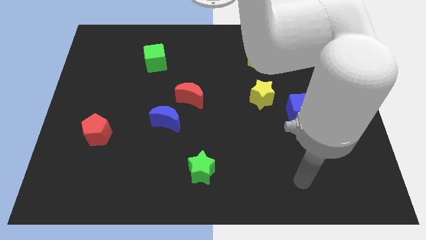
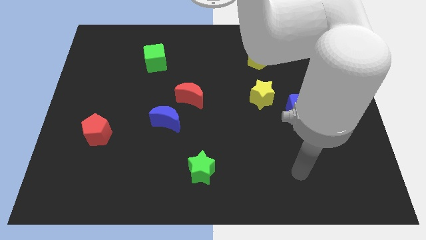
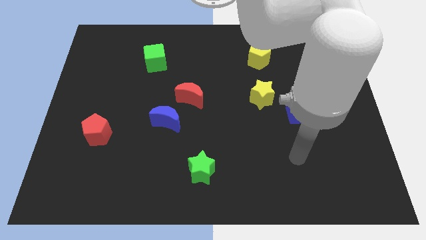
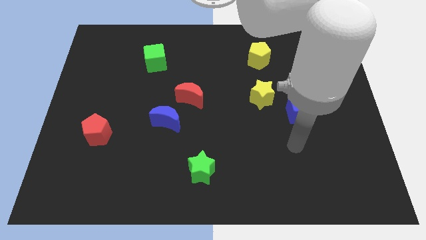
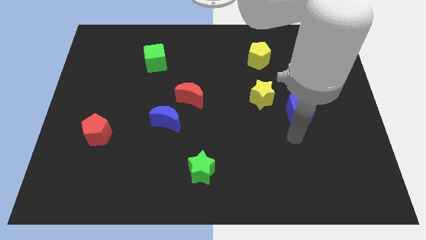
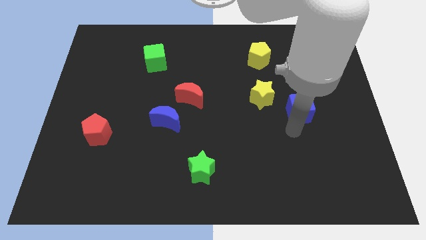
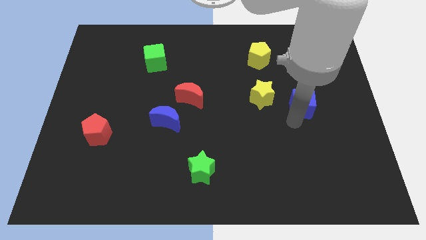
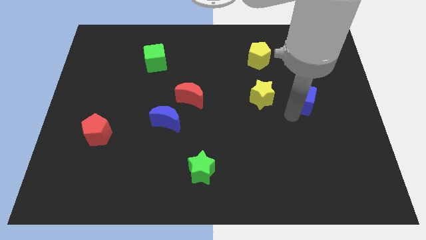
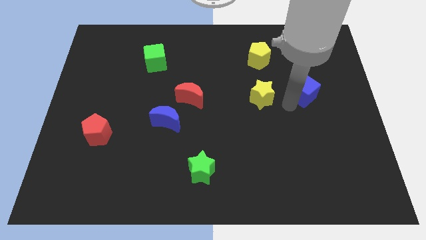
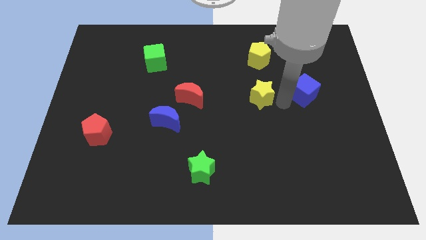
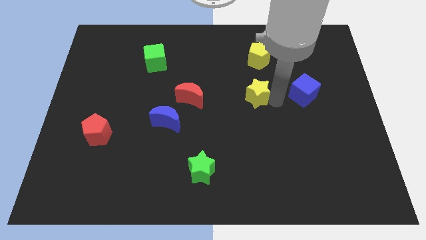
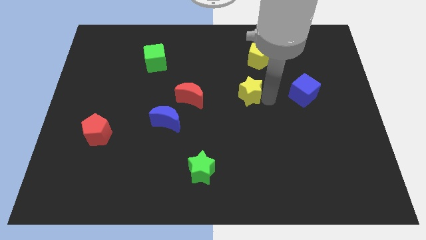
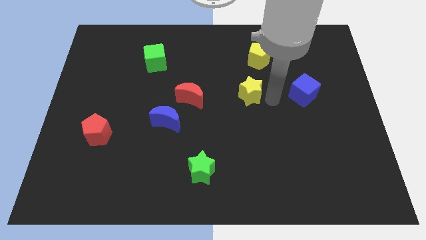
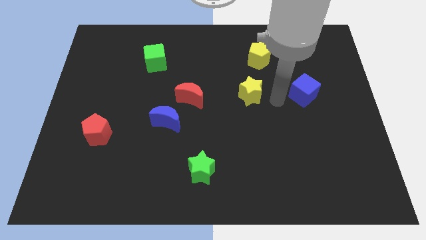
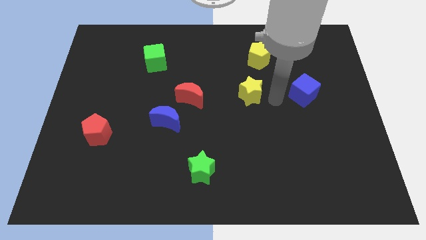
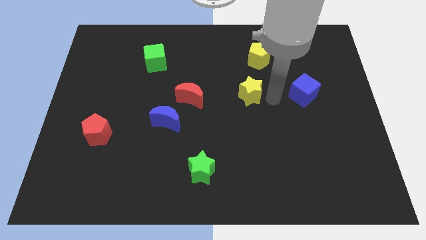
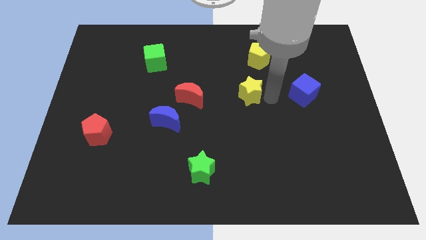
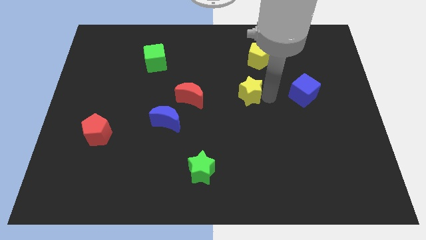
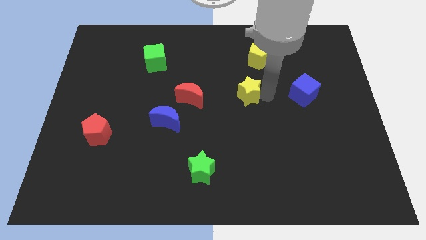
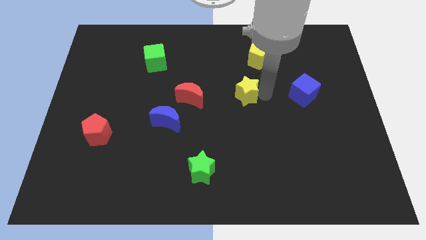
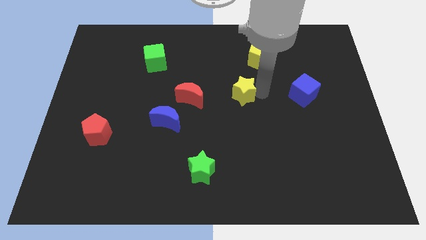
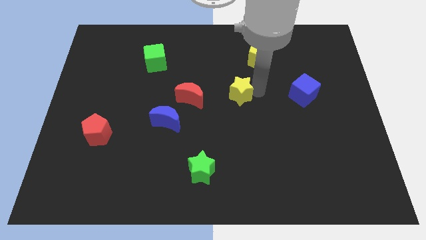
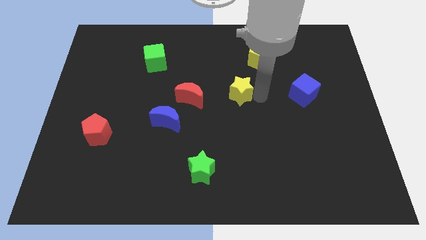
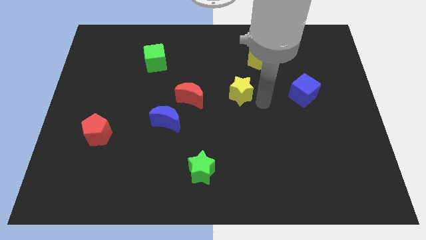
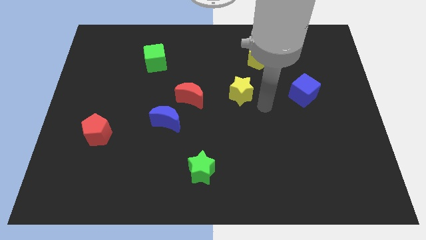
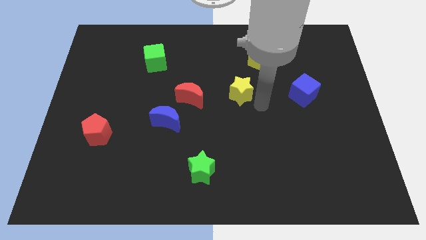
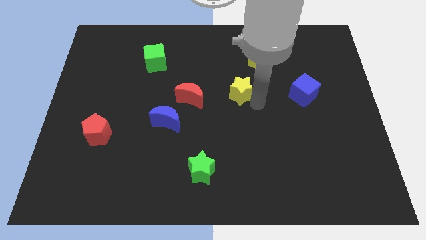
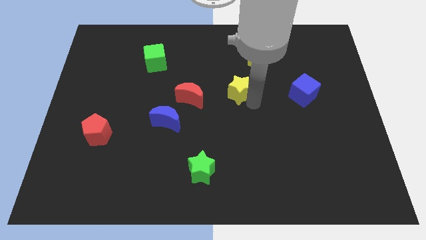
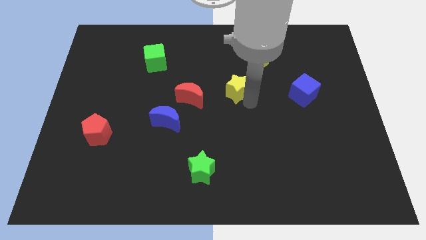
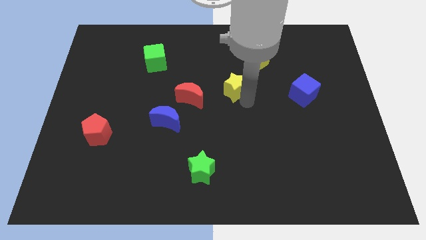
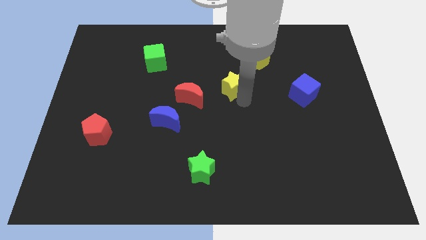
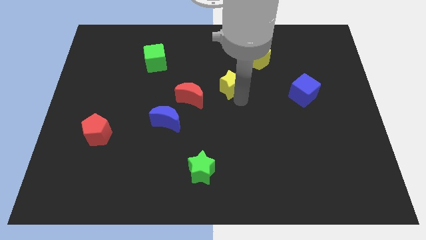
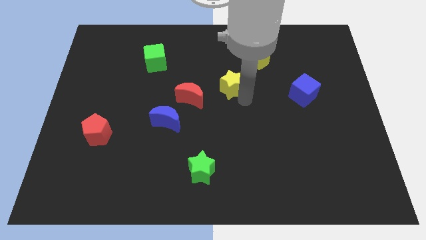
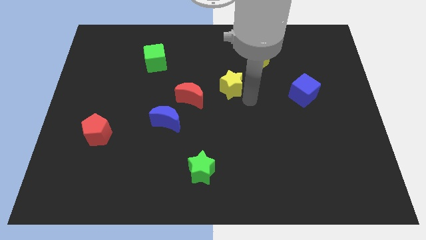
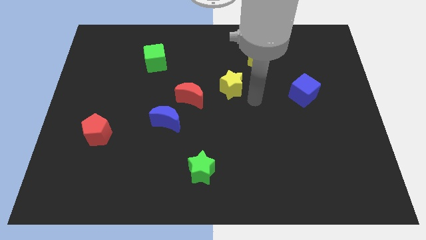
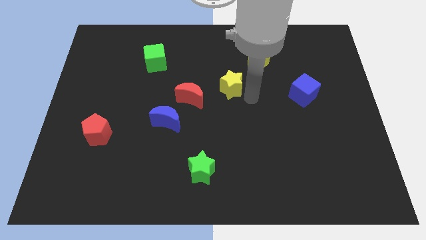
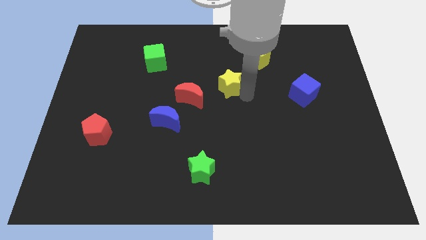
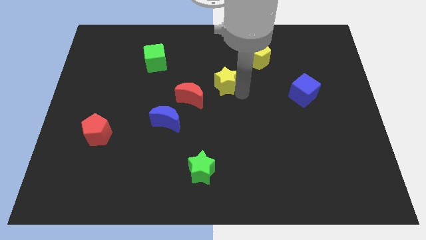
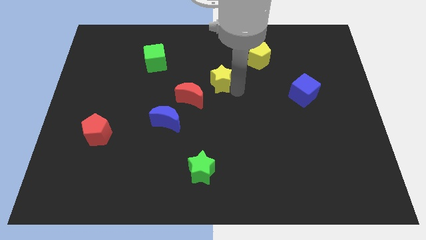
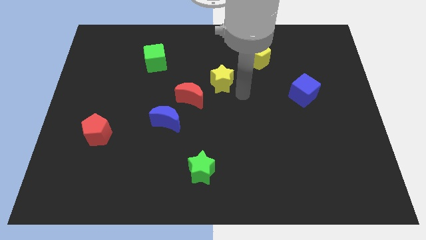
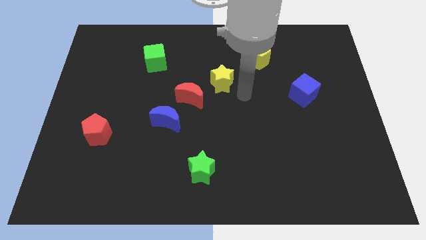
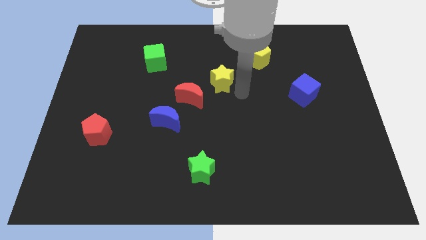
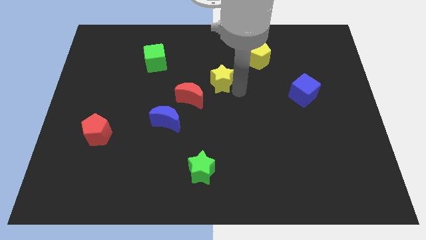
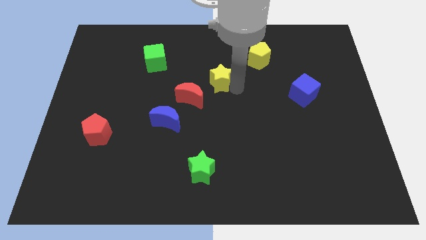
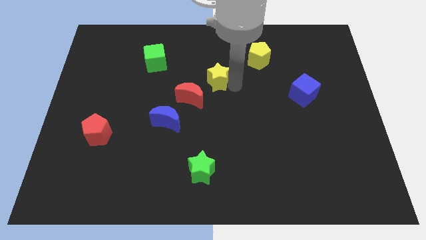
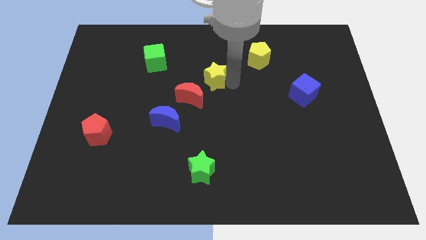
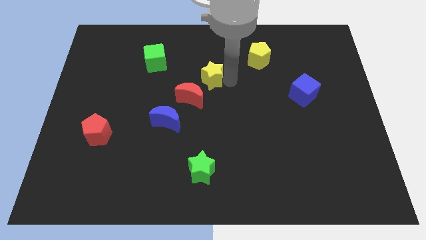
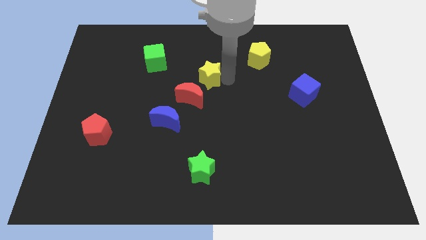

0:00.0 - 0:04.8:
put the yellow star above the red moon

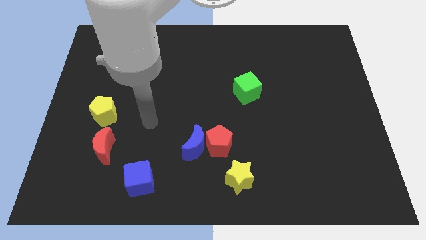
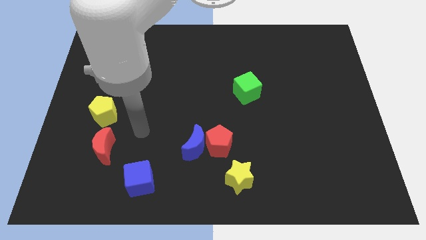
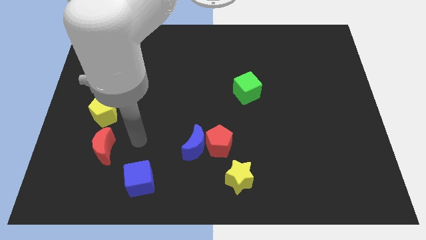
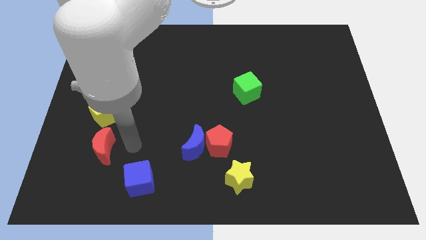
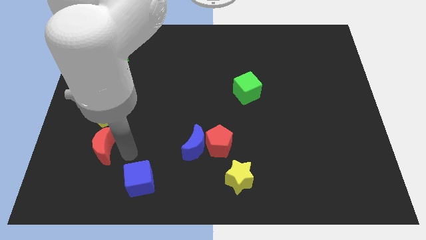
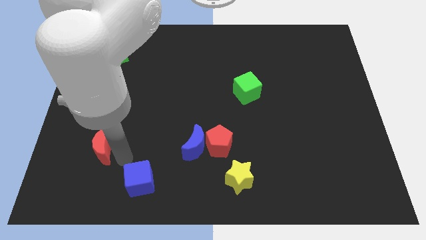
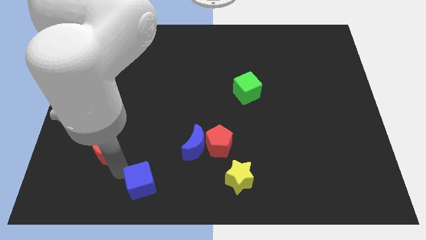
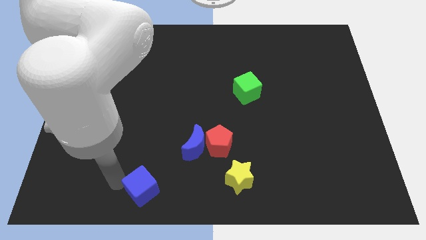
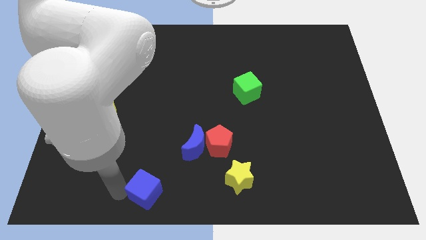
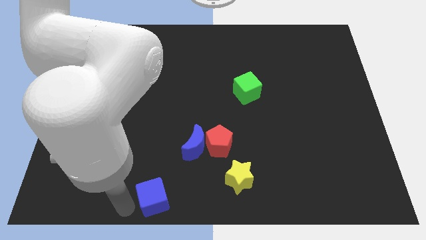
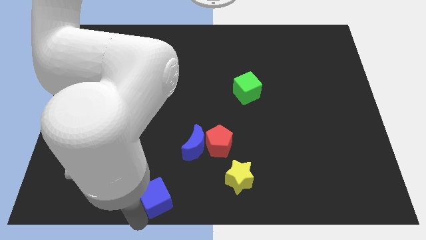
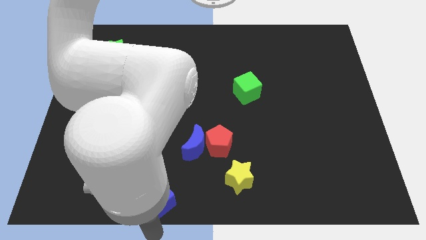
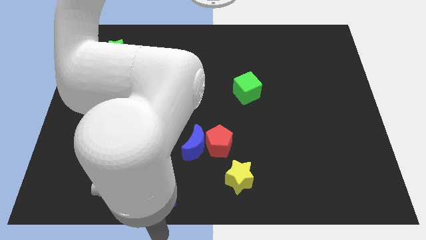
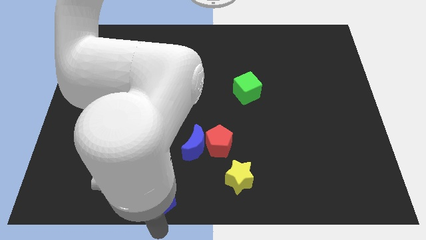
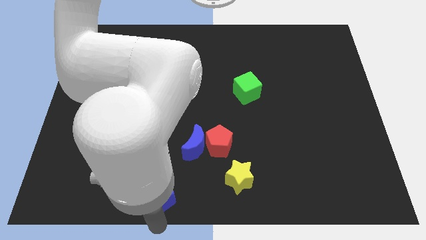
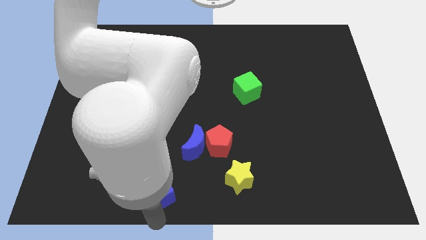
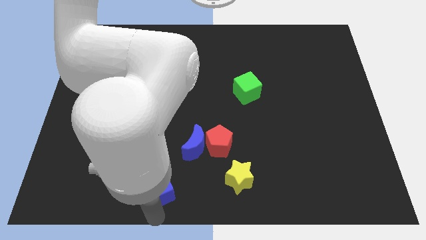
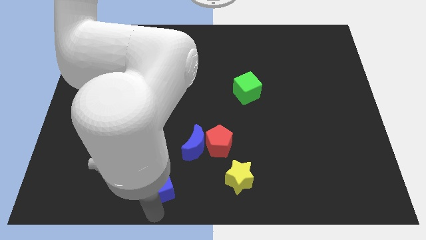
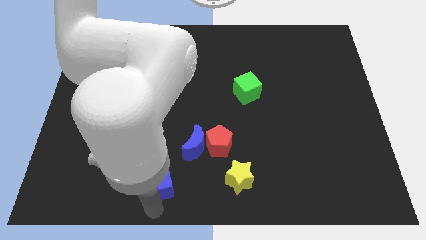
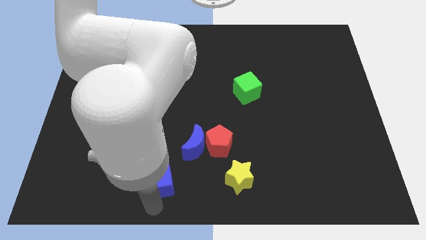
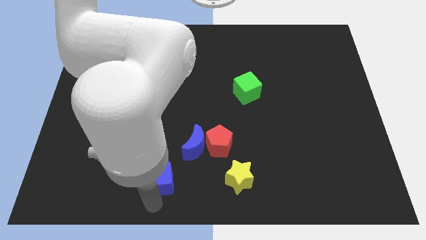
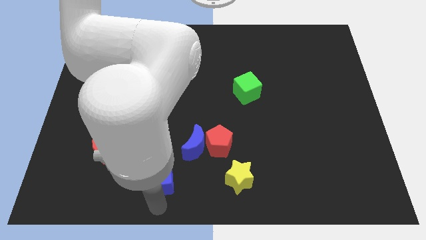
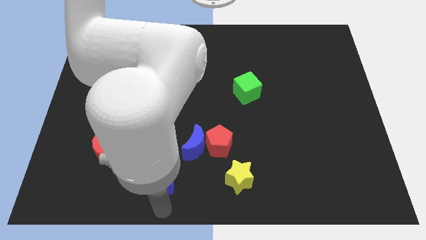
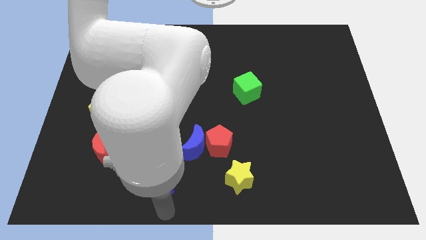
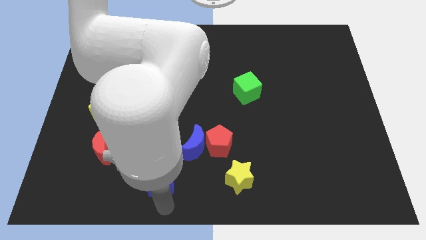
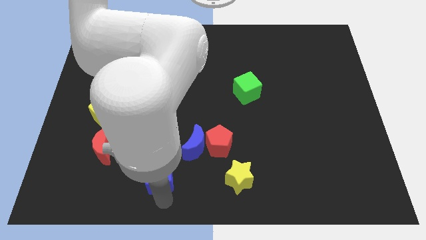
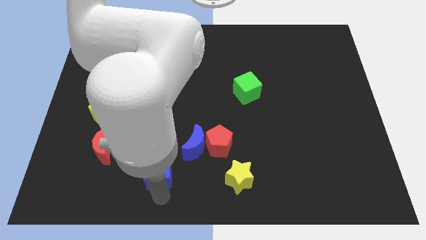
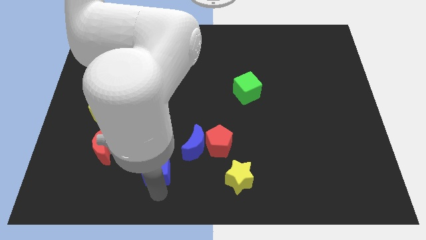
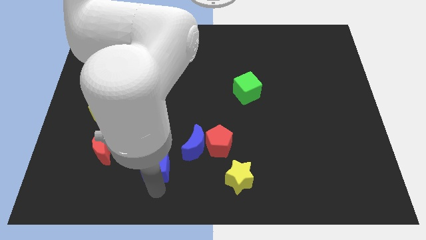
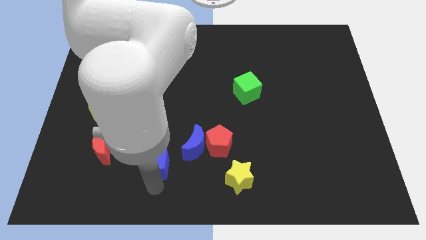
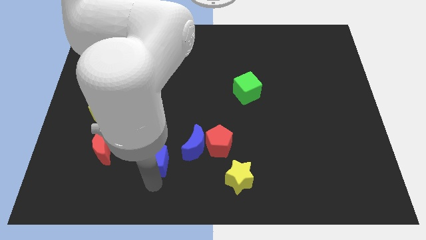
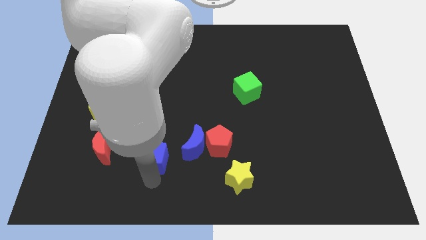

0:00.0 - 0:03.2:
put the blue cube to the left side of the red pentagon

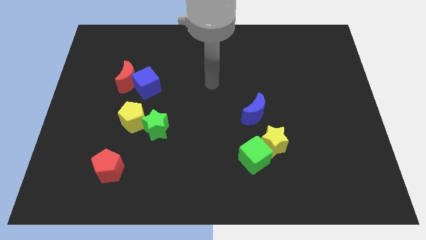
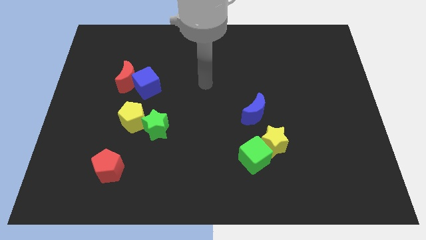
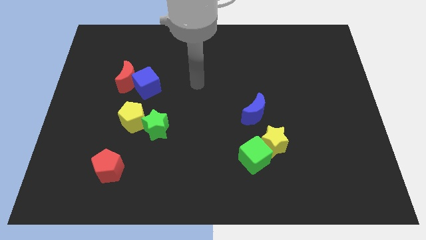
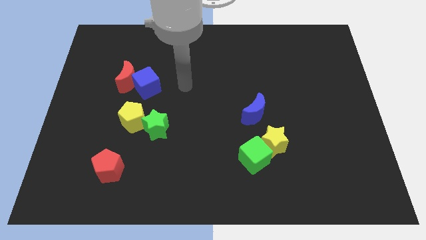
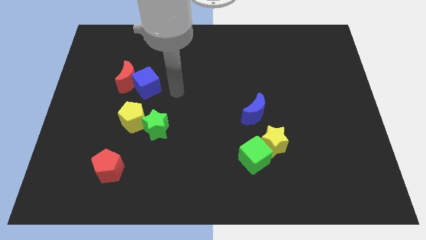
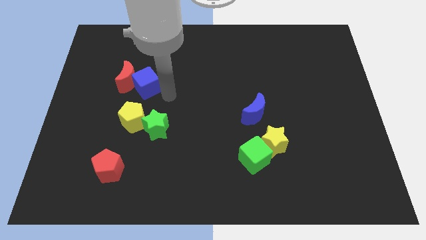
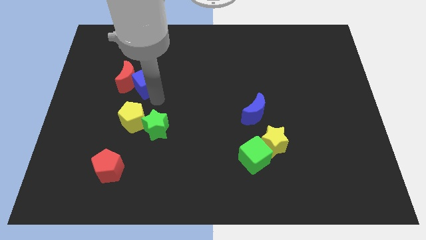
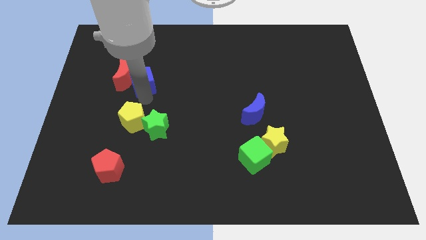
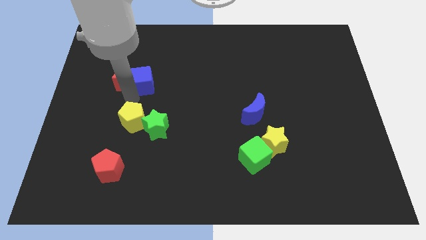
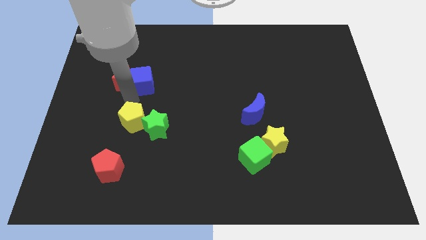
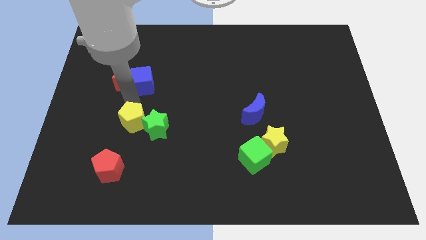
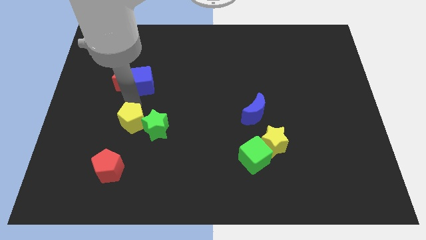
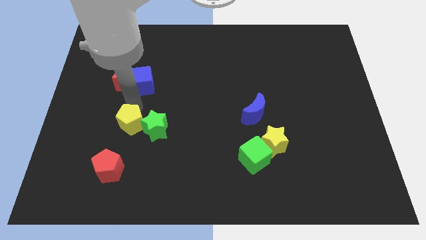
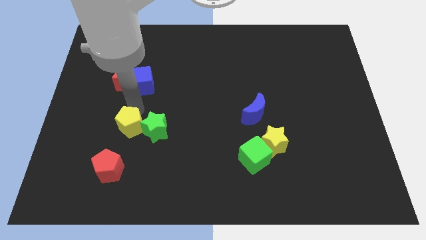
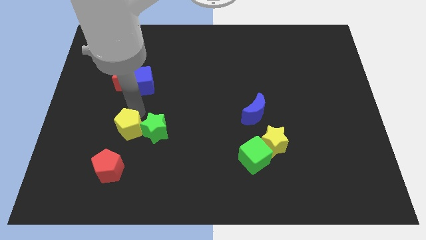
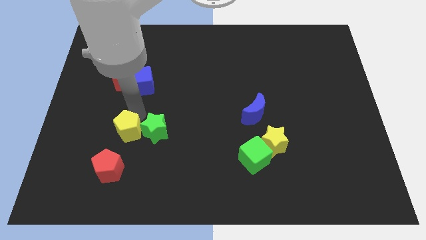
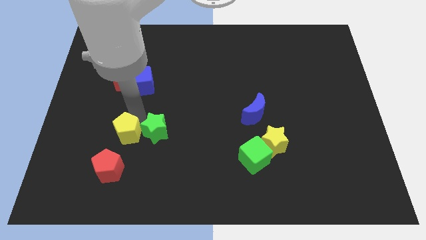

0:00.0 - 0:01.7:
move the yellow pentagon diagonally up and to the right of the red pentagon
